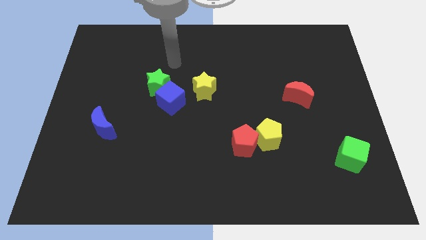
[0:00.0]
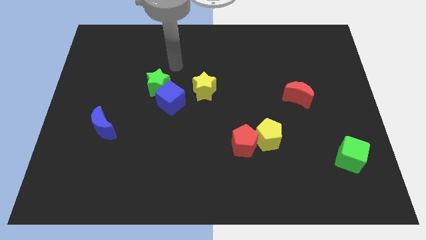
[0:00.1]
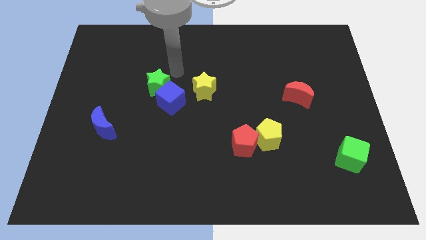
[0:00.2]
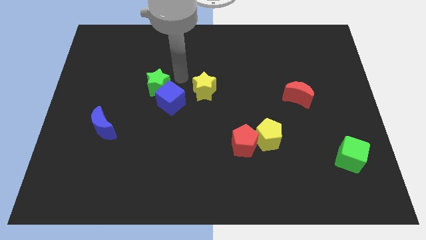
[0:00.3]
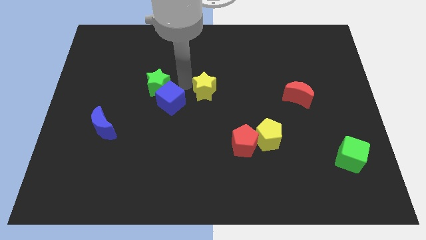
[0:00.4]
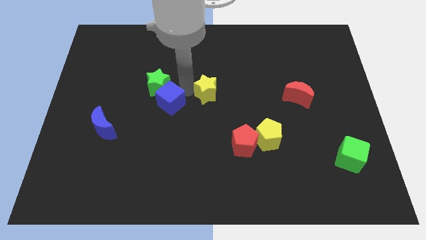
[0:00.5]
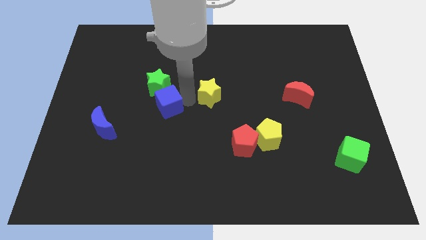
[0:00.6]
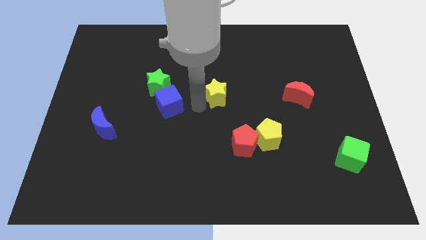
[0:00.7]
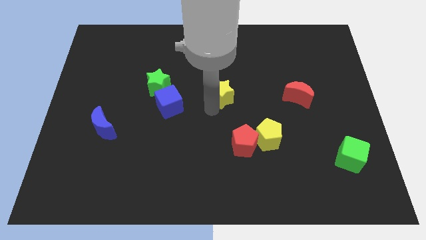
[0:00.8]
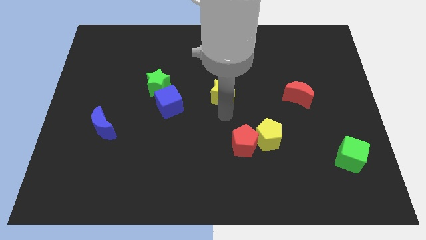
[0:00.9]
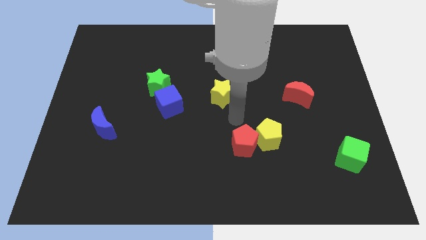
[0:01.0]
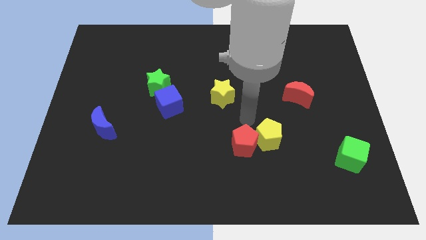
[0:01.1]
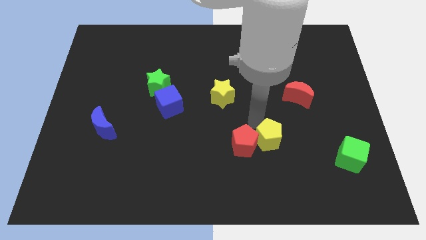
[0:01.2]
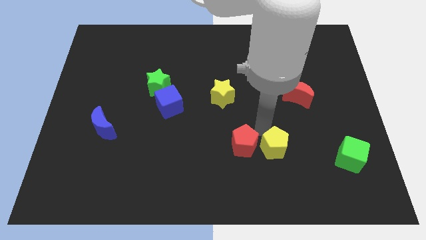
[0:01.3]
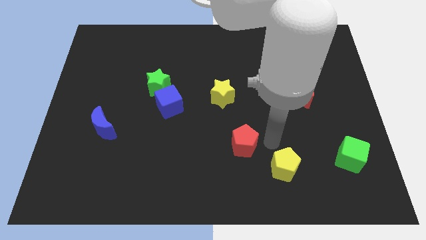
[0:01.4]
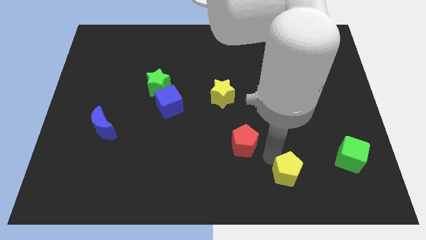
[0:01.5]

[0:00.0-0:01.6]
pull the red pentagon apart from the yellow pentagon

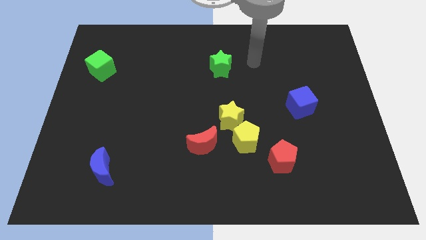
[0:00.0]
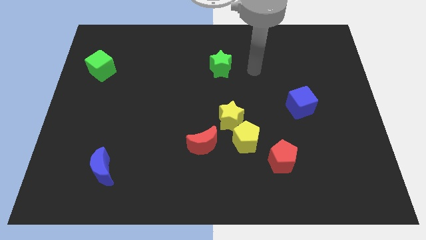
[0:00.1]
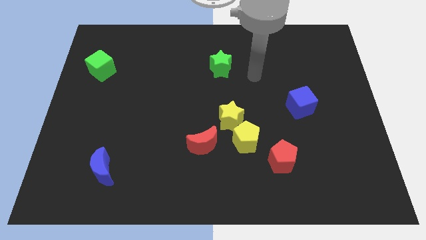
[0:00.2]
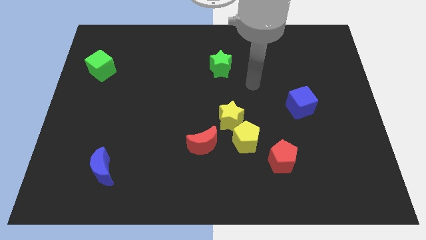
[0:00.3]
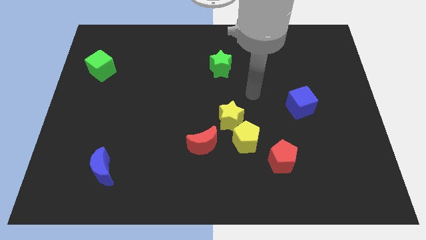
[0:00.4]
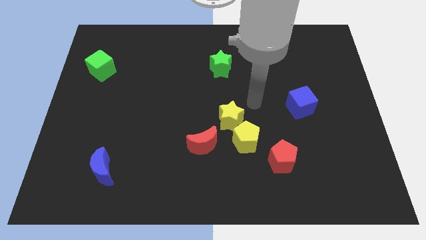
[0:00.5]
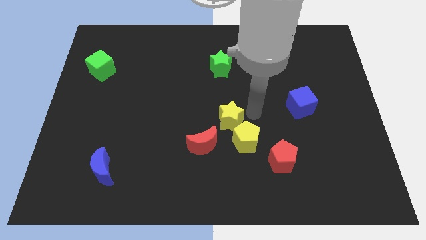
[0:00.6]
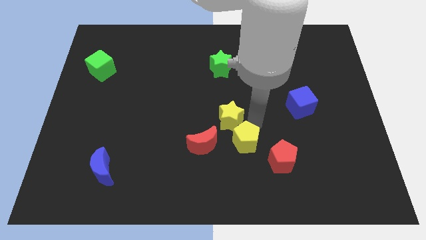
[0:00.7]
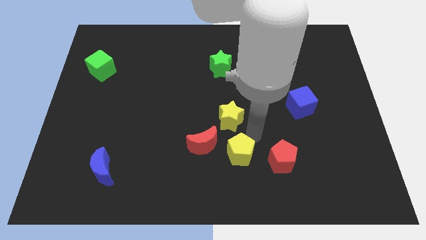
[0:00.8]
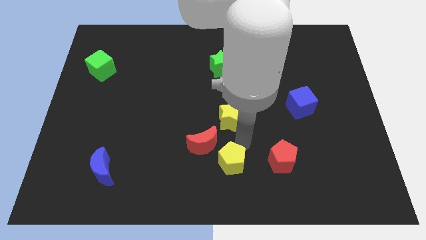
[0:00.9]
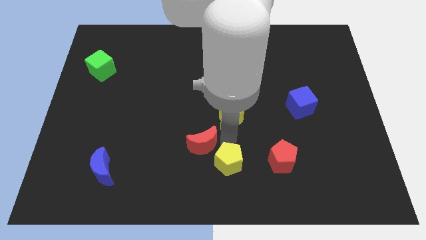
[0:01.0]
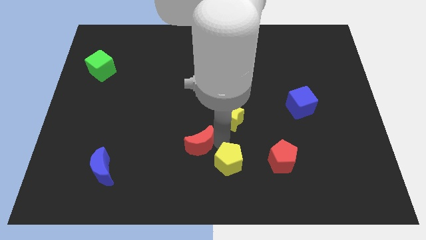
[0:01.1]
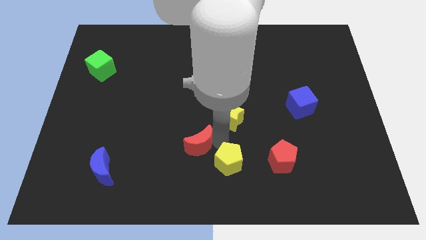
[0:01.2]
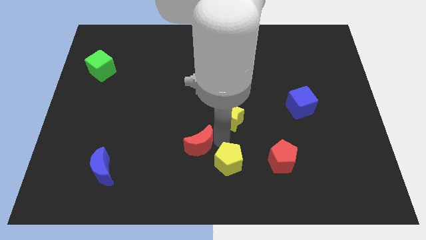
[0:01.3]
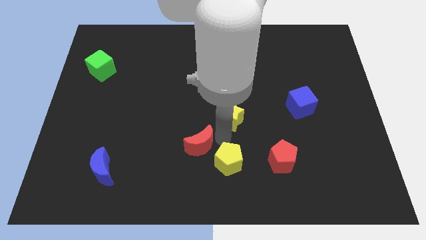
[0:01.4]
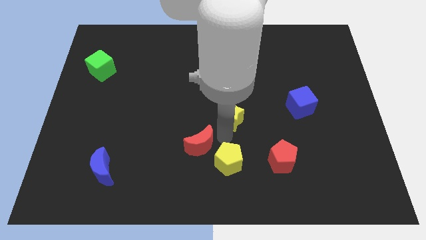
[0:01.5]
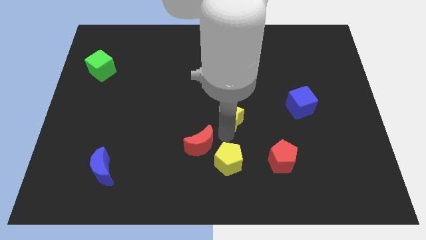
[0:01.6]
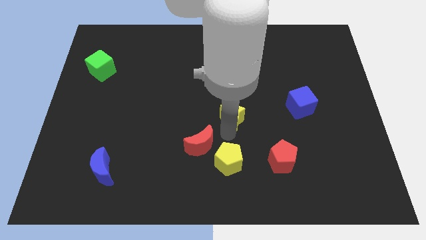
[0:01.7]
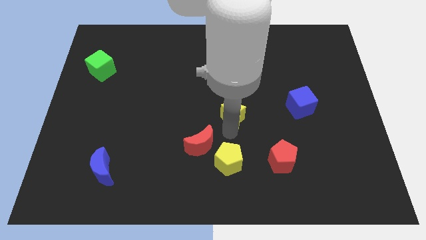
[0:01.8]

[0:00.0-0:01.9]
separate the yellow star from the yellow pentagon and red moon

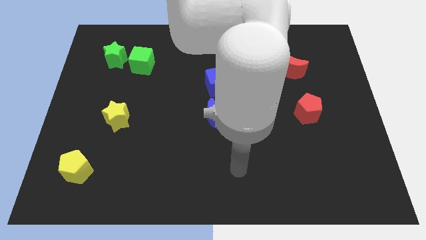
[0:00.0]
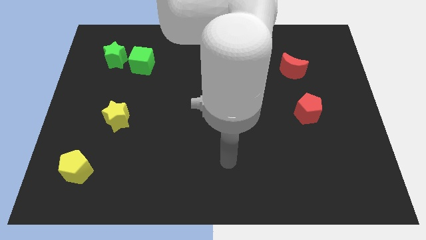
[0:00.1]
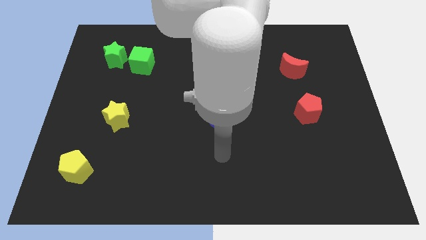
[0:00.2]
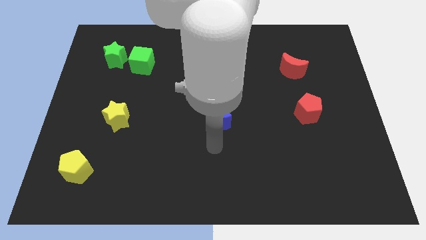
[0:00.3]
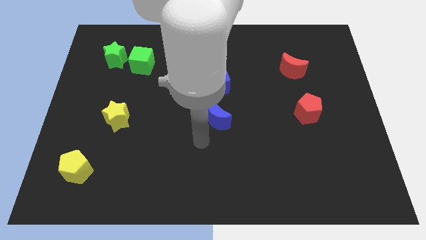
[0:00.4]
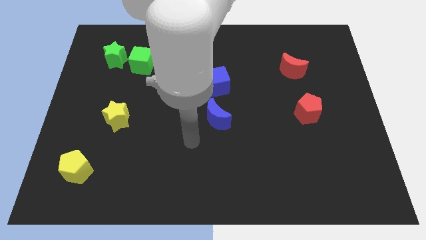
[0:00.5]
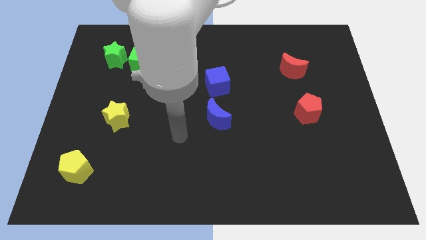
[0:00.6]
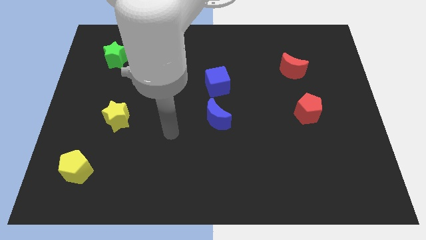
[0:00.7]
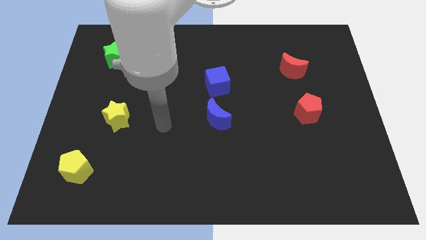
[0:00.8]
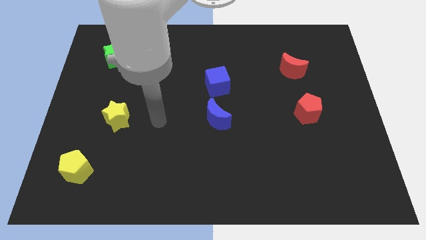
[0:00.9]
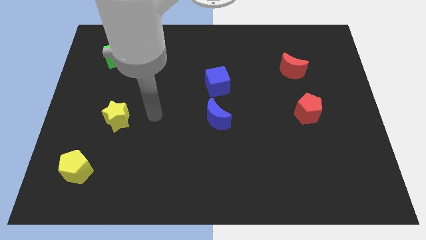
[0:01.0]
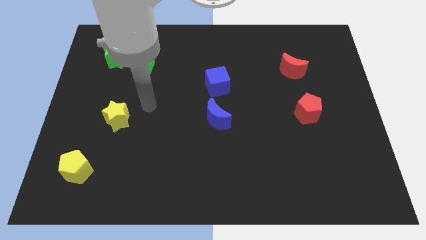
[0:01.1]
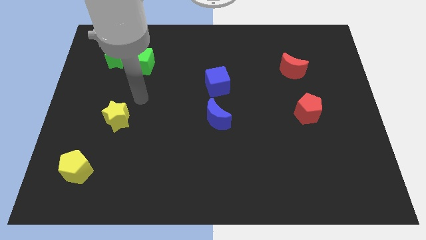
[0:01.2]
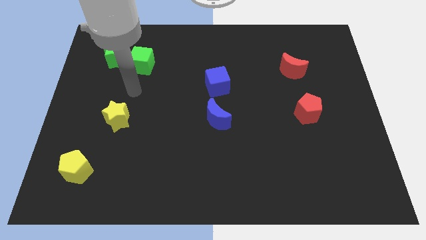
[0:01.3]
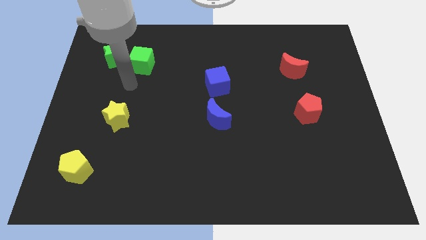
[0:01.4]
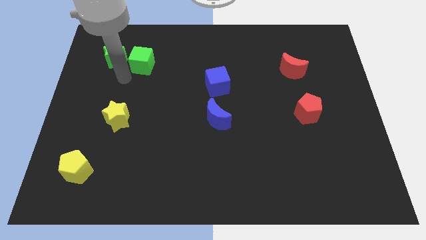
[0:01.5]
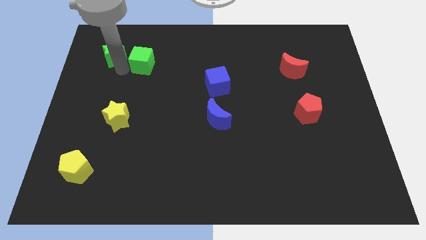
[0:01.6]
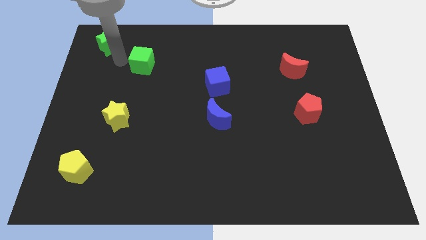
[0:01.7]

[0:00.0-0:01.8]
move the green cube away from the green star

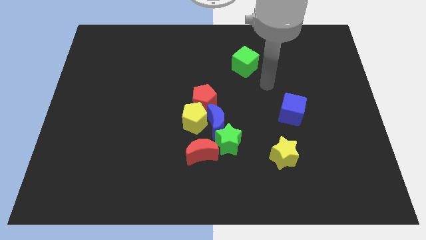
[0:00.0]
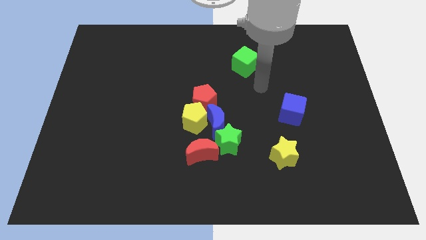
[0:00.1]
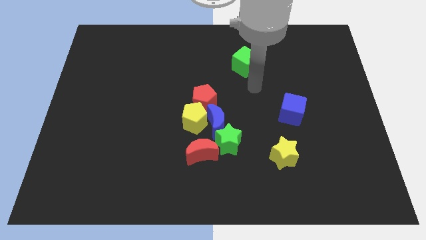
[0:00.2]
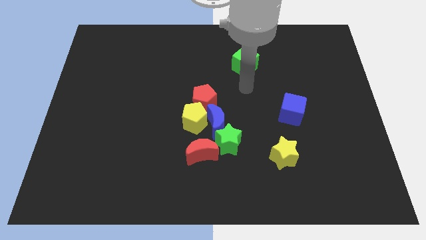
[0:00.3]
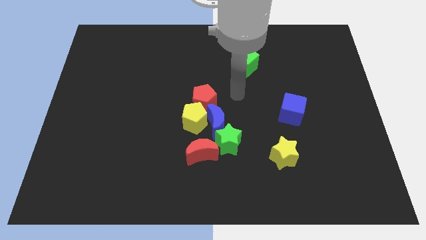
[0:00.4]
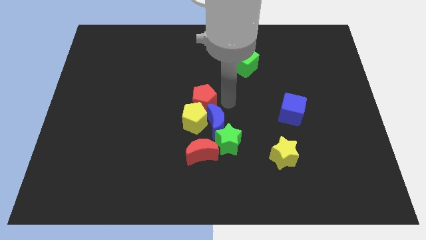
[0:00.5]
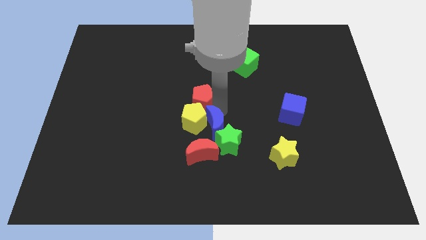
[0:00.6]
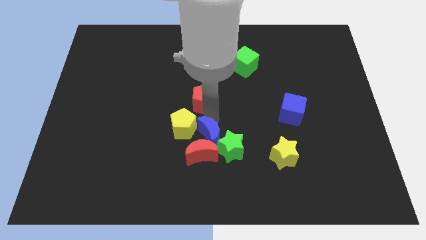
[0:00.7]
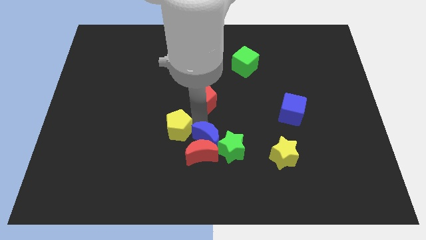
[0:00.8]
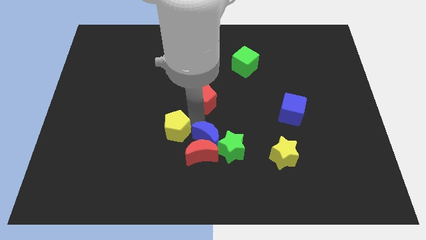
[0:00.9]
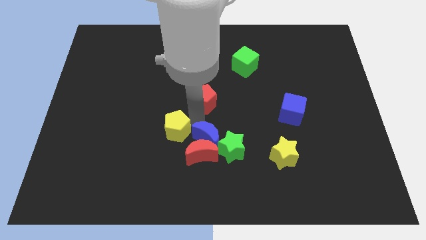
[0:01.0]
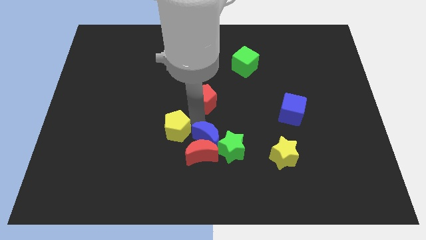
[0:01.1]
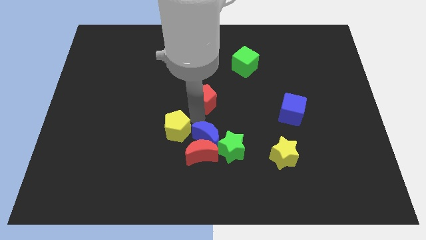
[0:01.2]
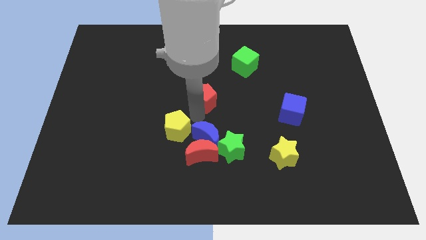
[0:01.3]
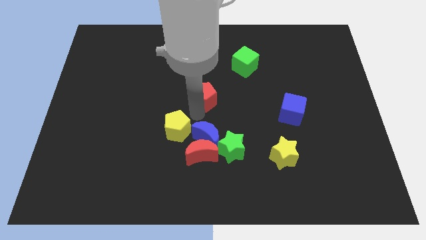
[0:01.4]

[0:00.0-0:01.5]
pull the red pentagon apart from the yellow pentagon and blue moon

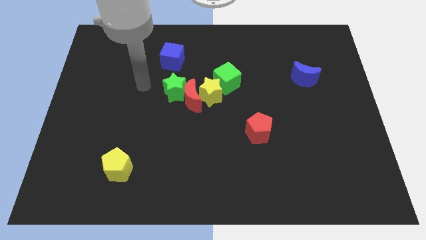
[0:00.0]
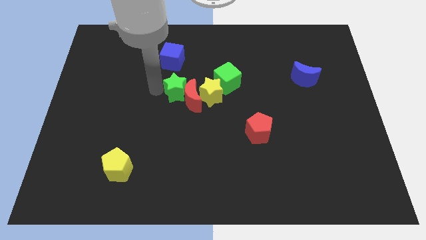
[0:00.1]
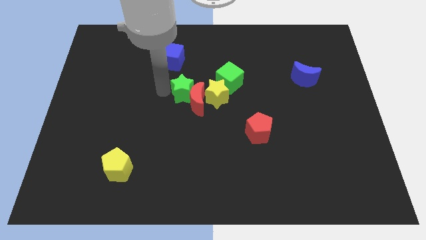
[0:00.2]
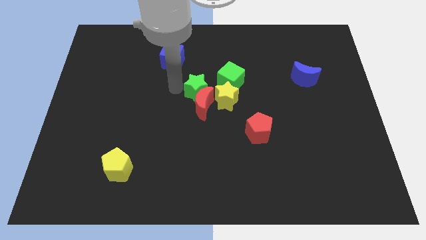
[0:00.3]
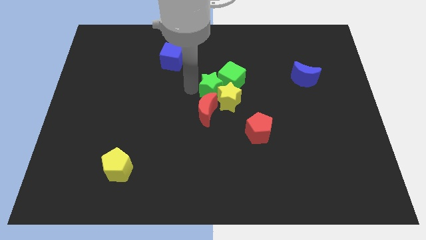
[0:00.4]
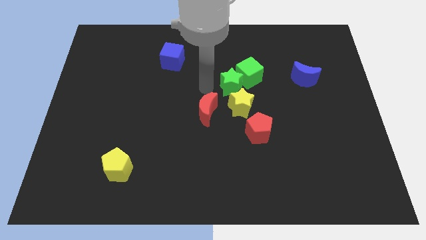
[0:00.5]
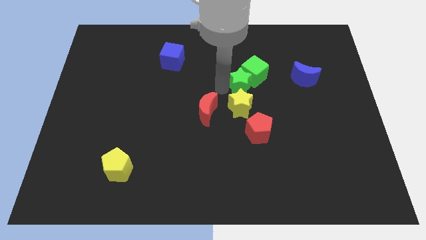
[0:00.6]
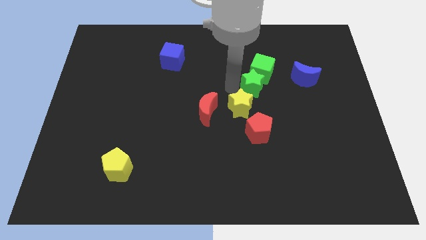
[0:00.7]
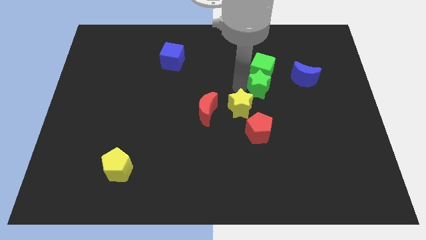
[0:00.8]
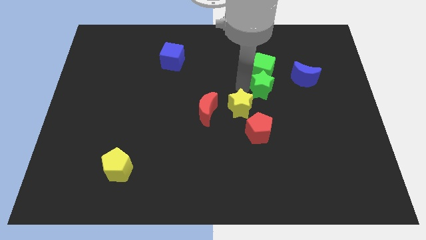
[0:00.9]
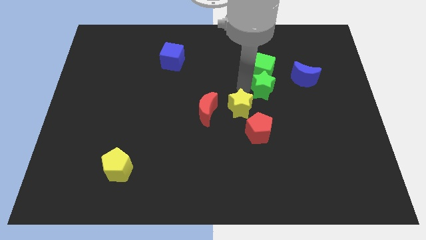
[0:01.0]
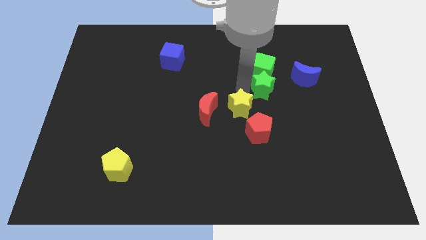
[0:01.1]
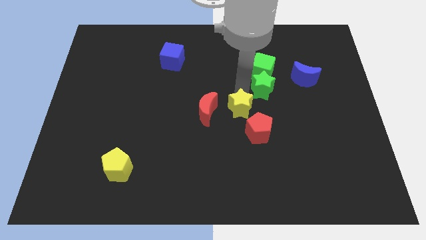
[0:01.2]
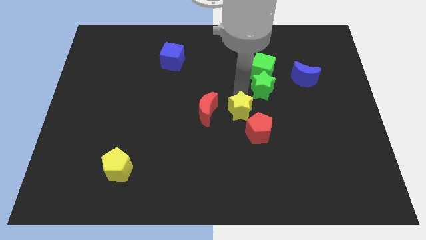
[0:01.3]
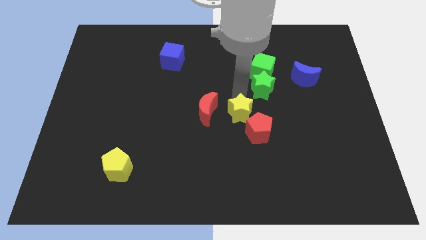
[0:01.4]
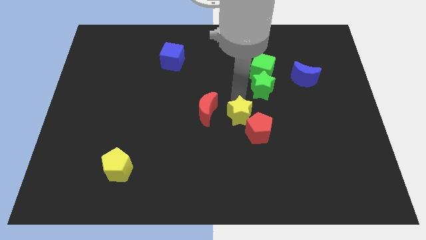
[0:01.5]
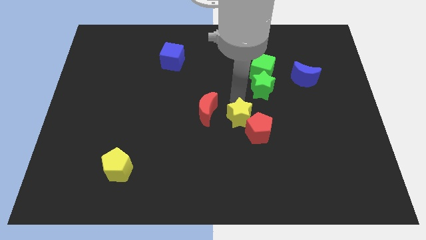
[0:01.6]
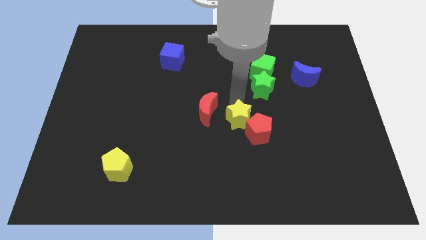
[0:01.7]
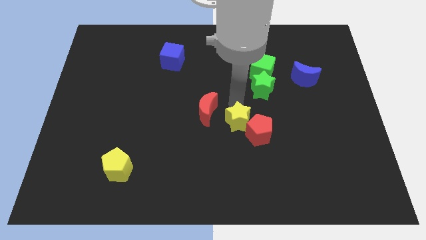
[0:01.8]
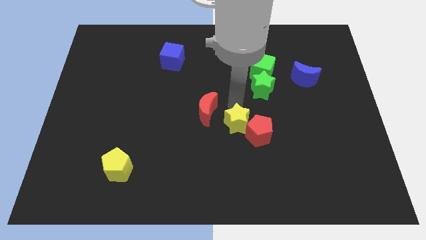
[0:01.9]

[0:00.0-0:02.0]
pull the yellow star apart from the red moon, green cube, and green star

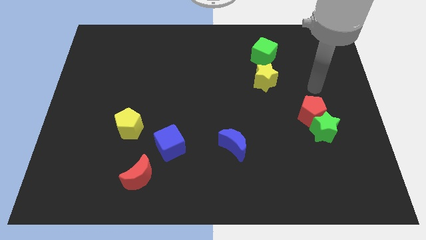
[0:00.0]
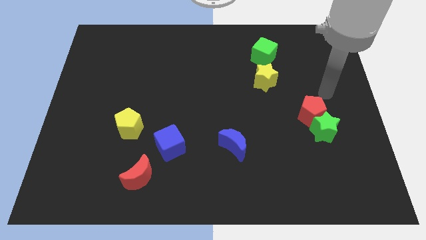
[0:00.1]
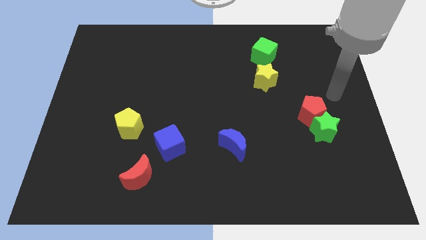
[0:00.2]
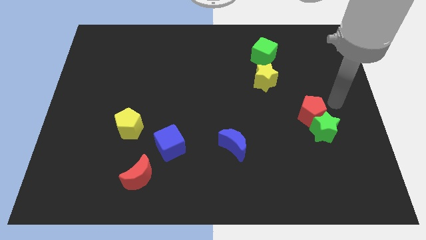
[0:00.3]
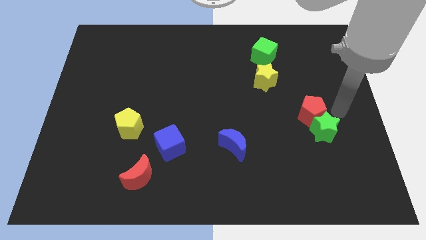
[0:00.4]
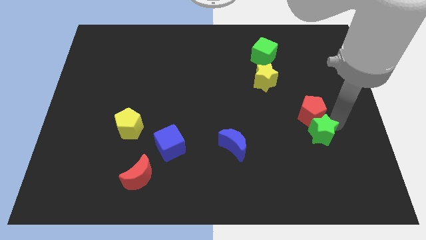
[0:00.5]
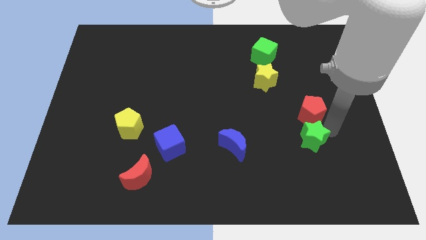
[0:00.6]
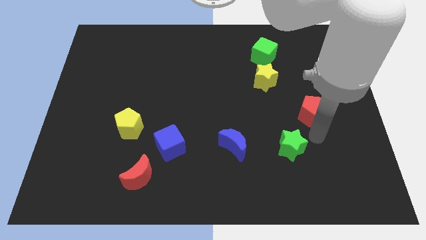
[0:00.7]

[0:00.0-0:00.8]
move the red pentagon away from the green star
